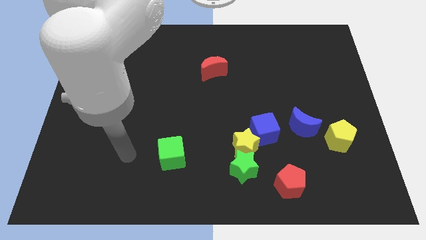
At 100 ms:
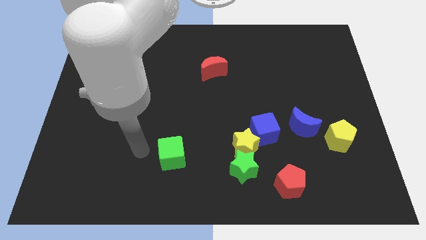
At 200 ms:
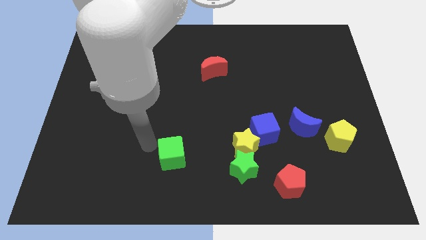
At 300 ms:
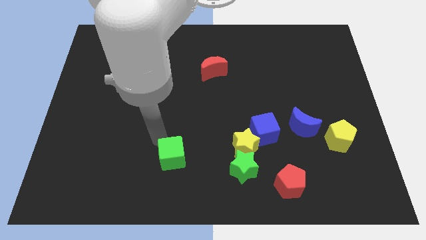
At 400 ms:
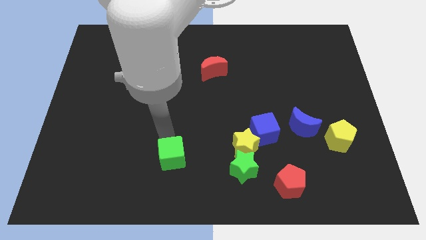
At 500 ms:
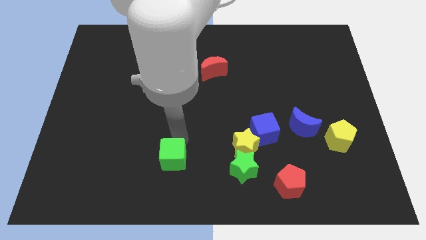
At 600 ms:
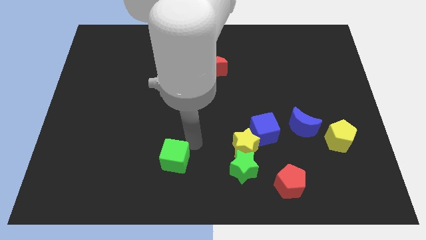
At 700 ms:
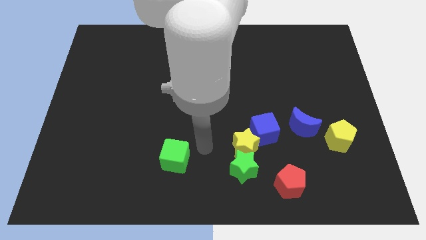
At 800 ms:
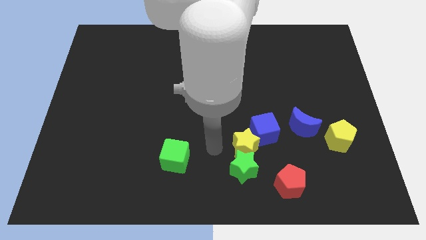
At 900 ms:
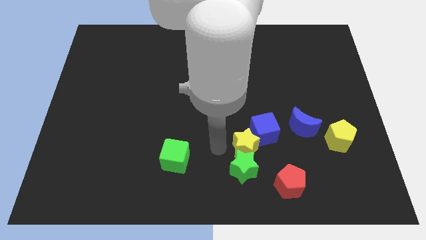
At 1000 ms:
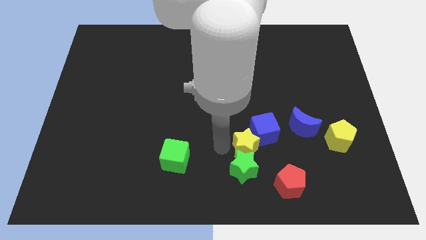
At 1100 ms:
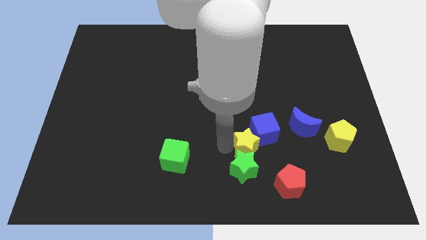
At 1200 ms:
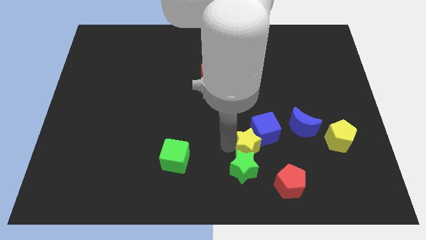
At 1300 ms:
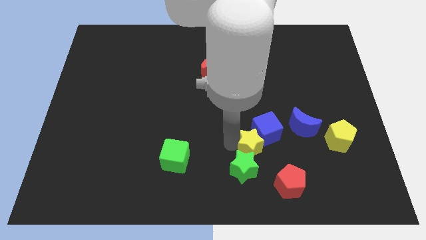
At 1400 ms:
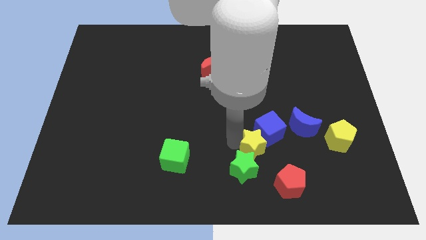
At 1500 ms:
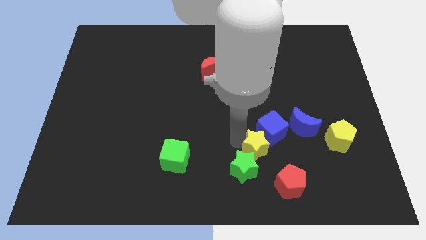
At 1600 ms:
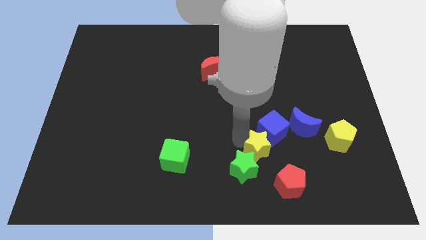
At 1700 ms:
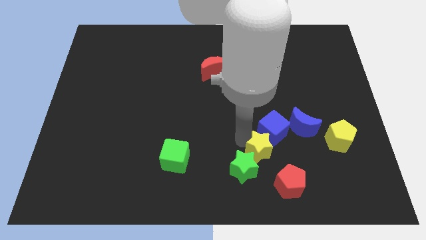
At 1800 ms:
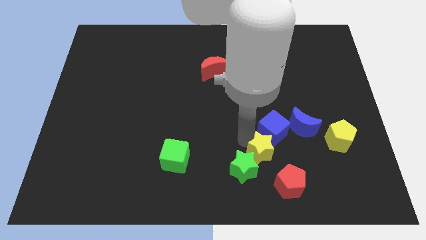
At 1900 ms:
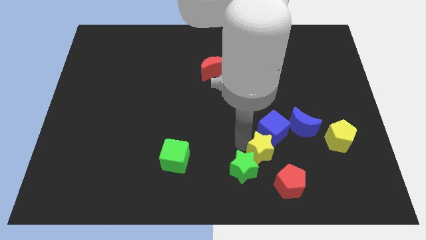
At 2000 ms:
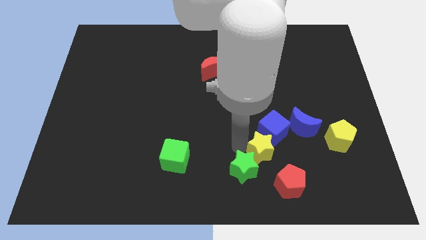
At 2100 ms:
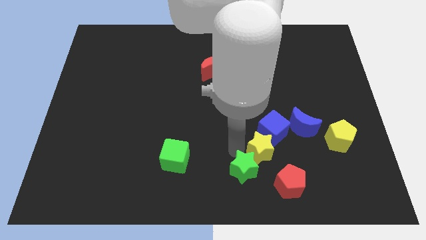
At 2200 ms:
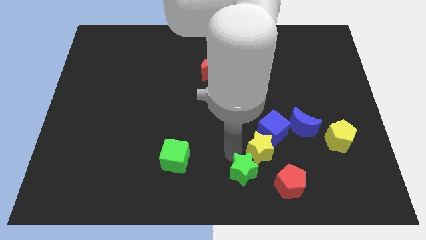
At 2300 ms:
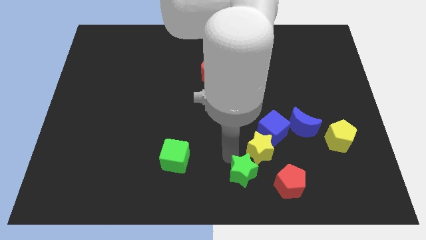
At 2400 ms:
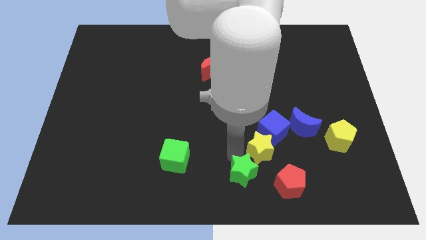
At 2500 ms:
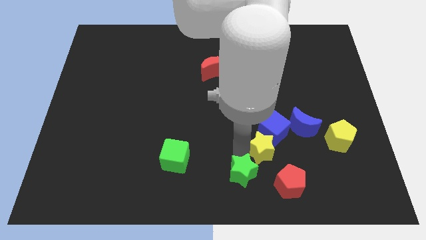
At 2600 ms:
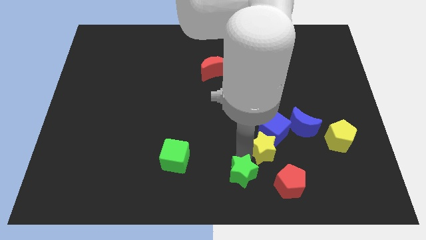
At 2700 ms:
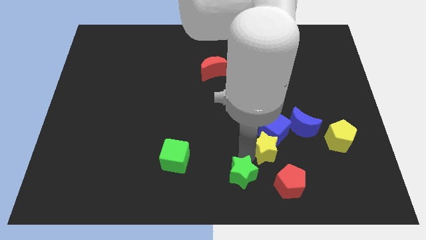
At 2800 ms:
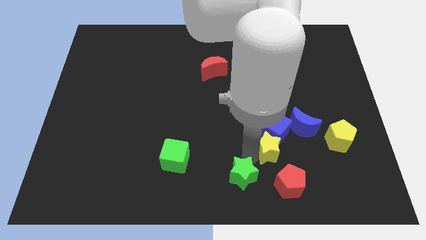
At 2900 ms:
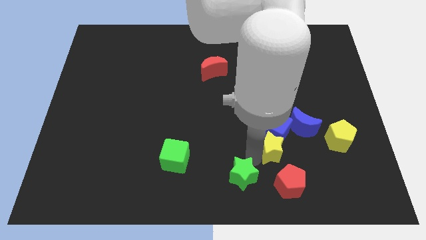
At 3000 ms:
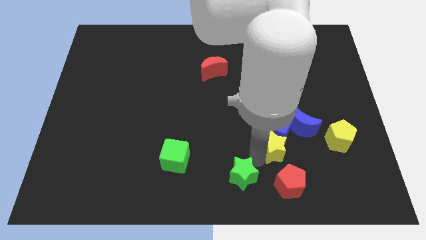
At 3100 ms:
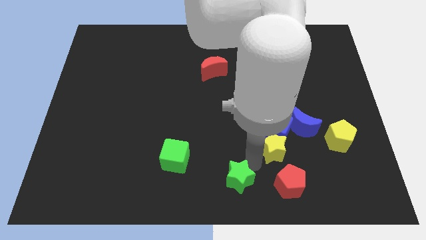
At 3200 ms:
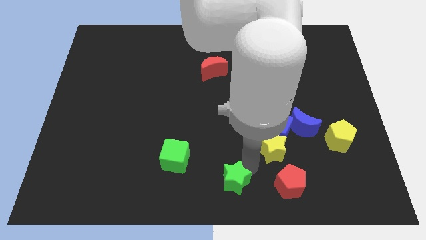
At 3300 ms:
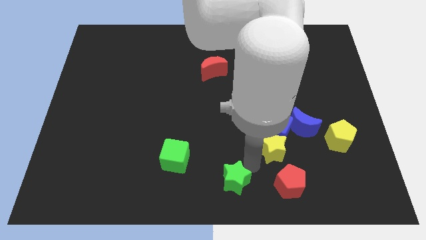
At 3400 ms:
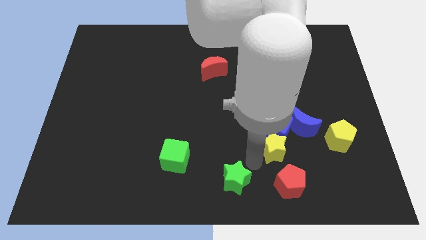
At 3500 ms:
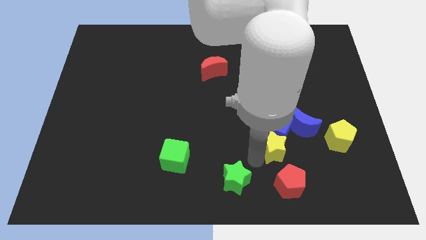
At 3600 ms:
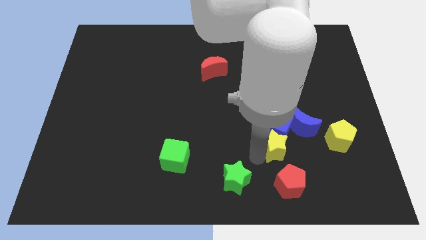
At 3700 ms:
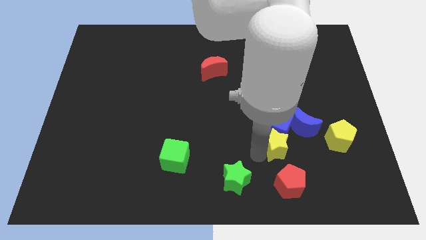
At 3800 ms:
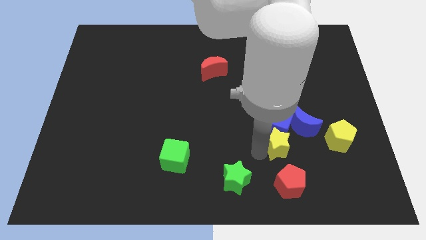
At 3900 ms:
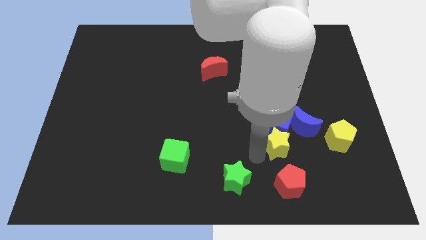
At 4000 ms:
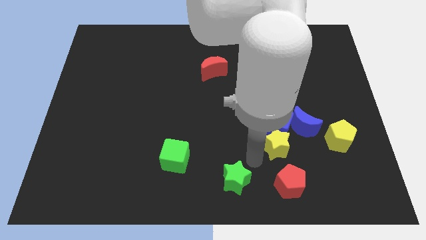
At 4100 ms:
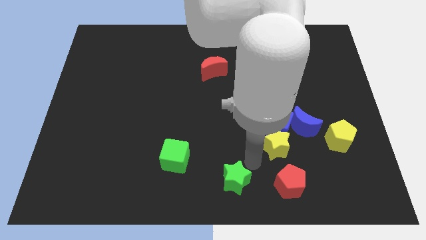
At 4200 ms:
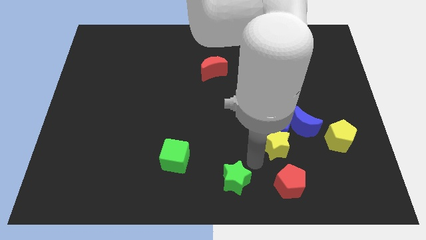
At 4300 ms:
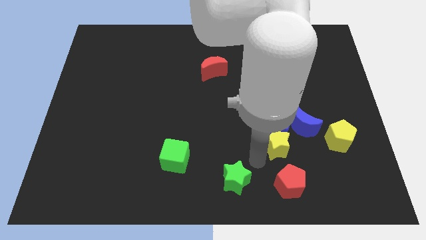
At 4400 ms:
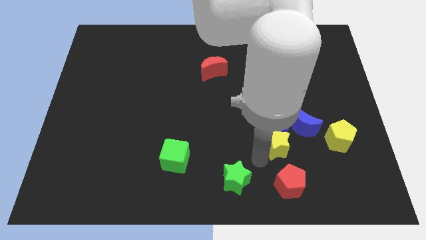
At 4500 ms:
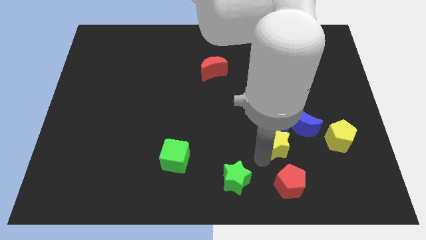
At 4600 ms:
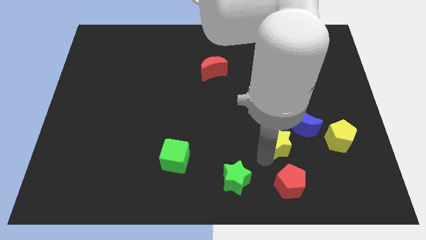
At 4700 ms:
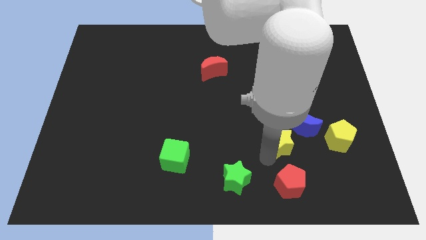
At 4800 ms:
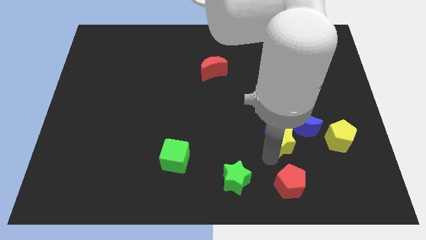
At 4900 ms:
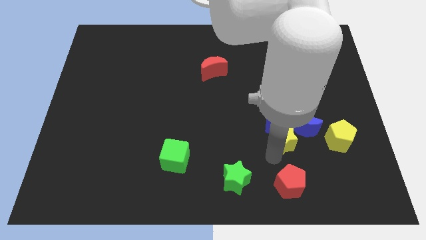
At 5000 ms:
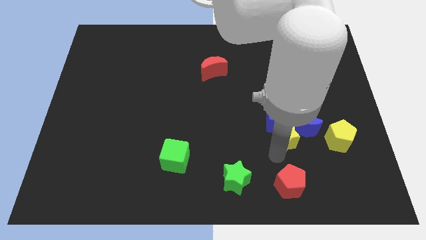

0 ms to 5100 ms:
push the yellow star towards the blue moon

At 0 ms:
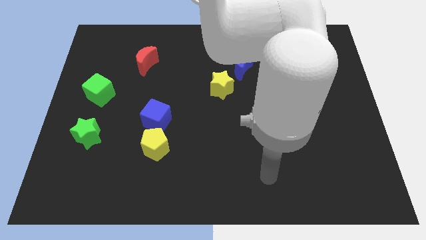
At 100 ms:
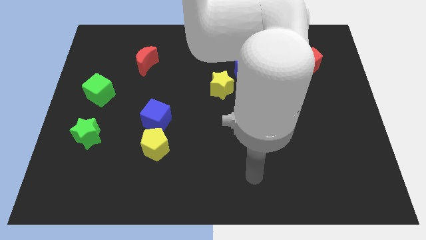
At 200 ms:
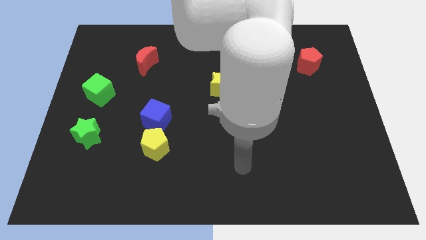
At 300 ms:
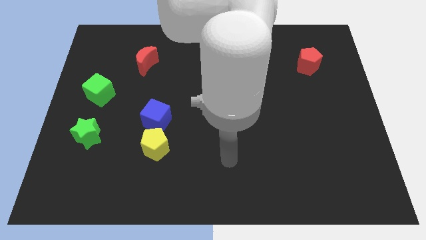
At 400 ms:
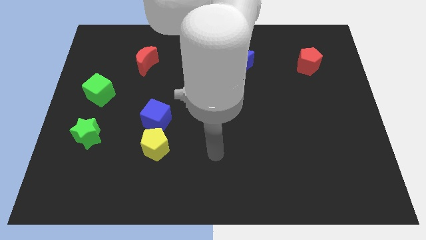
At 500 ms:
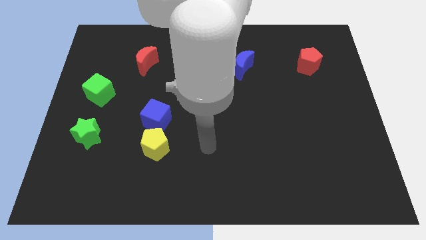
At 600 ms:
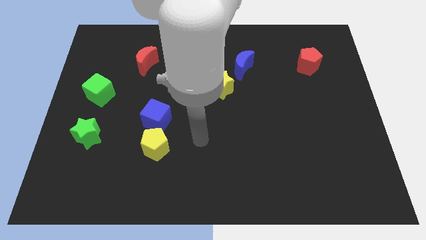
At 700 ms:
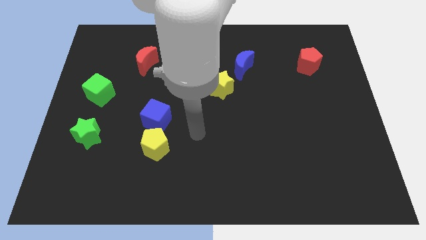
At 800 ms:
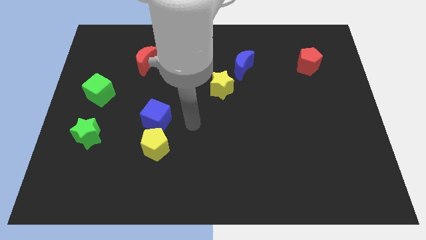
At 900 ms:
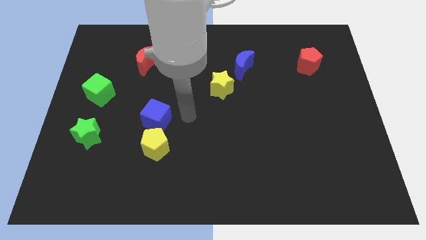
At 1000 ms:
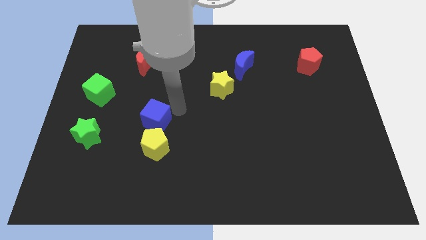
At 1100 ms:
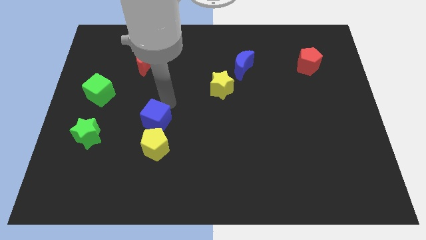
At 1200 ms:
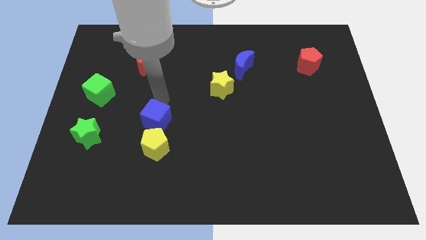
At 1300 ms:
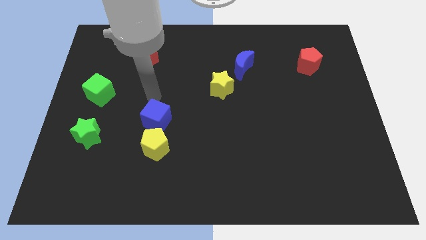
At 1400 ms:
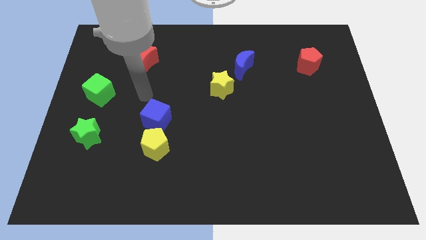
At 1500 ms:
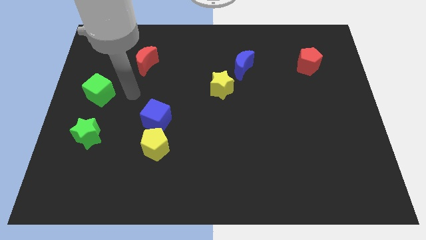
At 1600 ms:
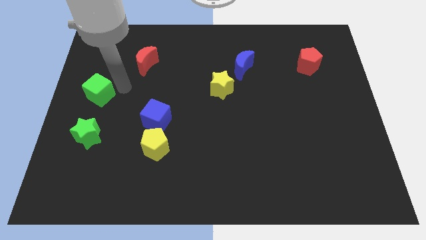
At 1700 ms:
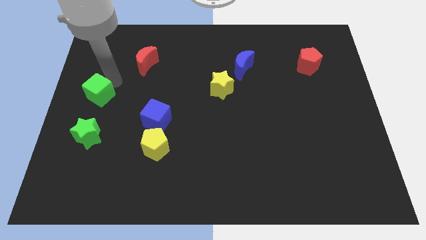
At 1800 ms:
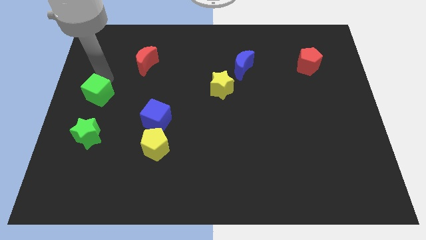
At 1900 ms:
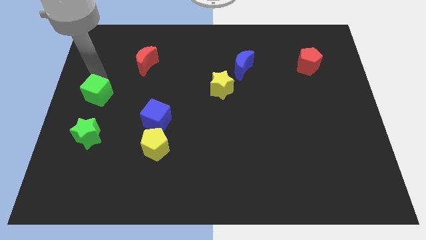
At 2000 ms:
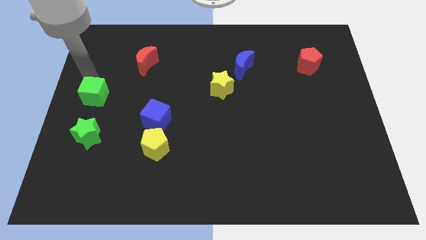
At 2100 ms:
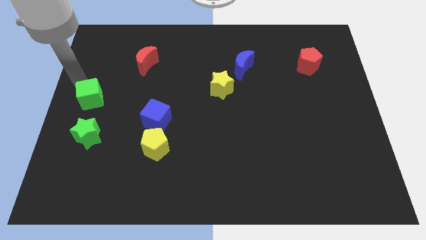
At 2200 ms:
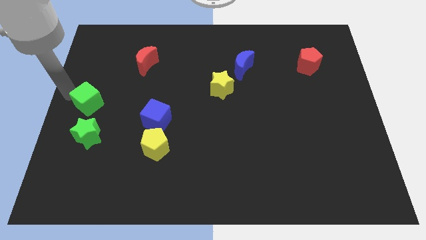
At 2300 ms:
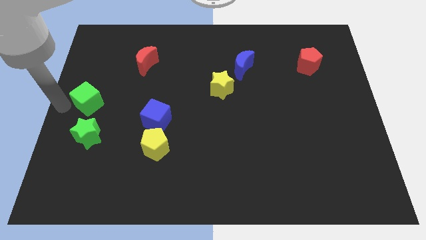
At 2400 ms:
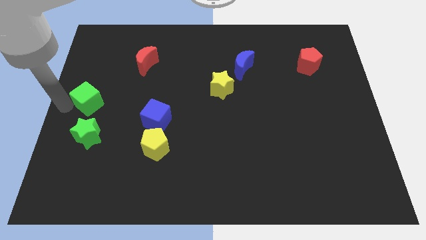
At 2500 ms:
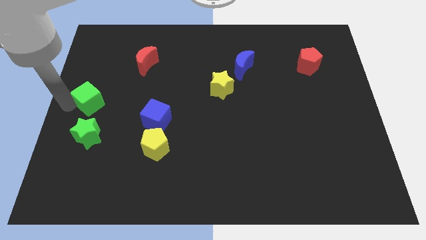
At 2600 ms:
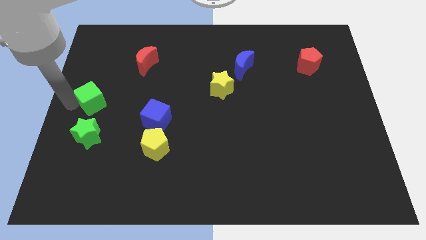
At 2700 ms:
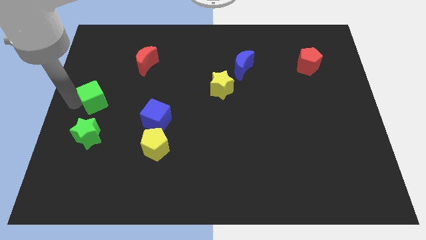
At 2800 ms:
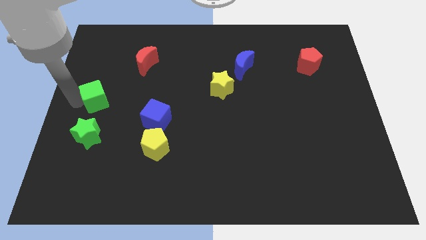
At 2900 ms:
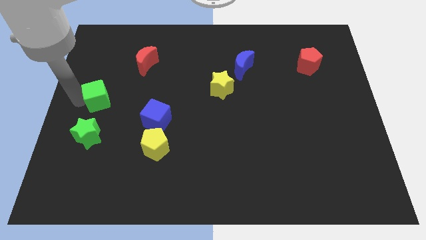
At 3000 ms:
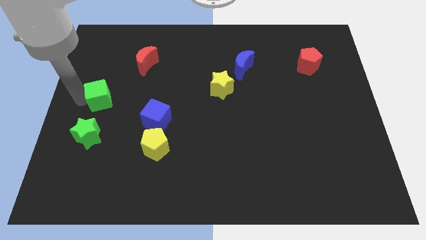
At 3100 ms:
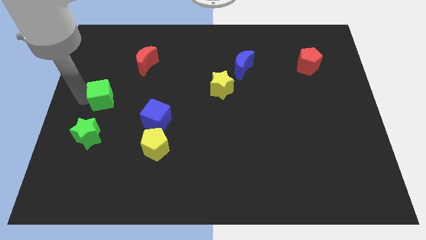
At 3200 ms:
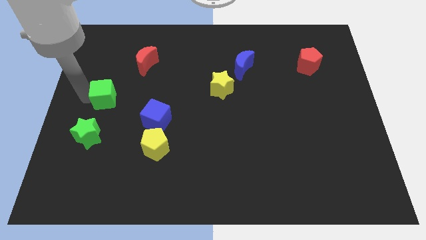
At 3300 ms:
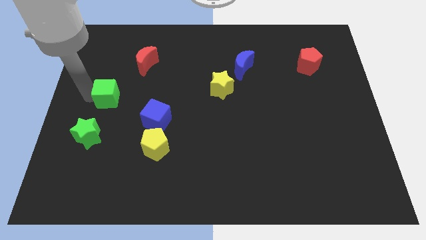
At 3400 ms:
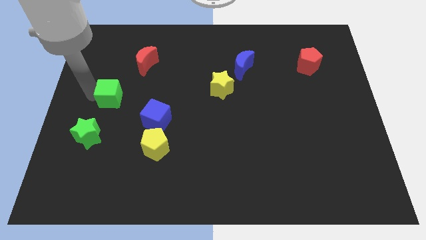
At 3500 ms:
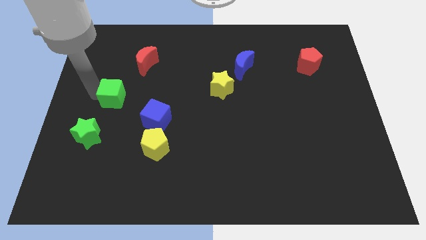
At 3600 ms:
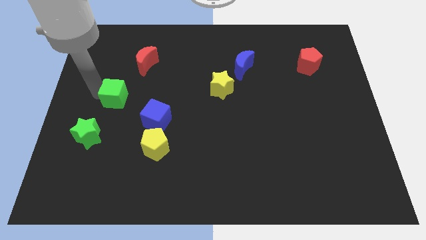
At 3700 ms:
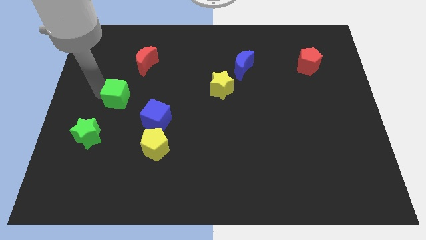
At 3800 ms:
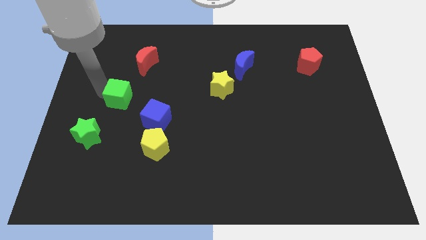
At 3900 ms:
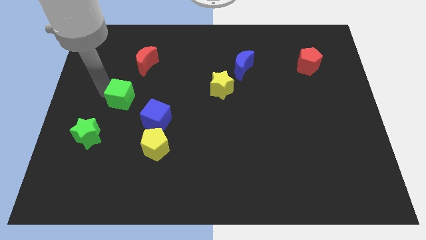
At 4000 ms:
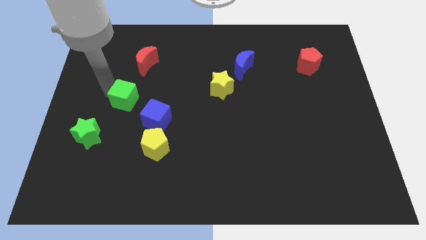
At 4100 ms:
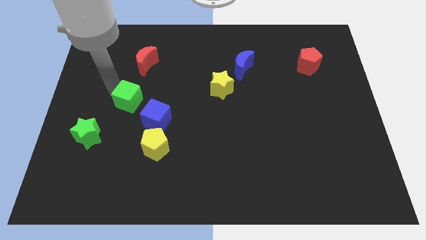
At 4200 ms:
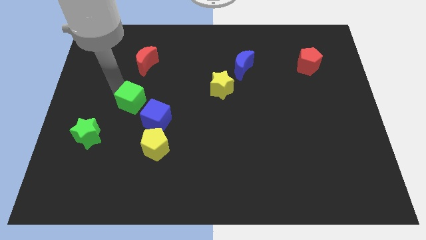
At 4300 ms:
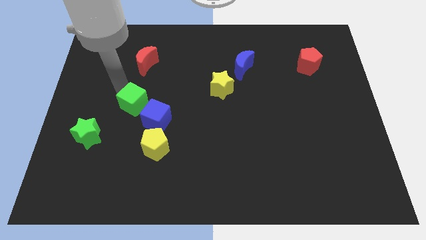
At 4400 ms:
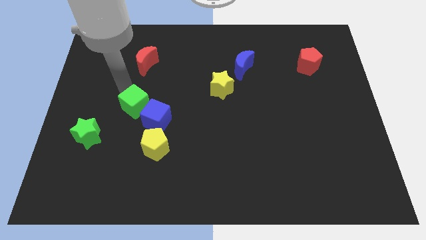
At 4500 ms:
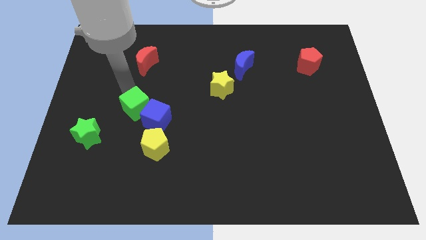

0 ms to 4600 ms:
put the green cube to the blue cube
